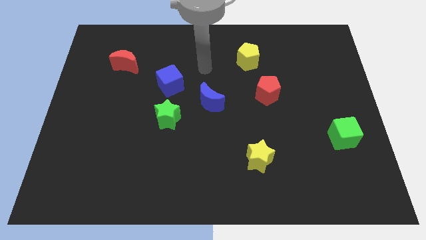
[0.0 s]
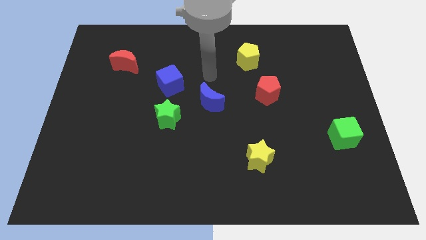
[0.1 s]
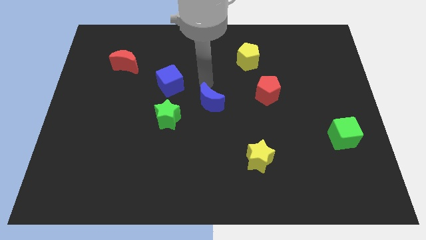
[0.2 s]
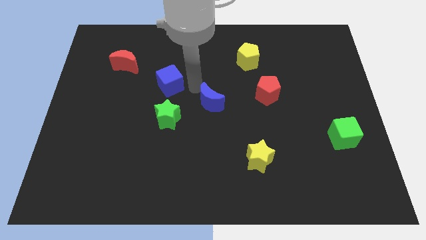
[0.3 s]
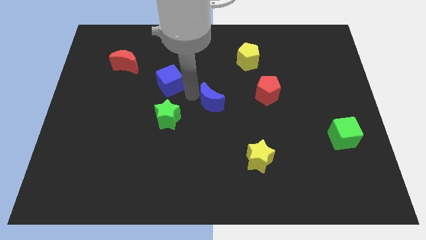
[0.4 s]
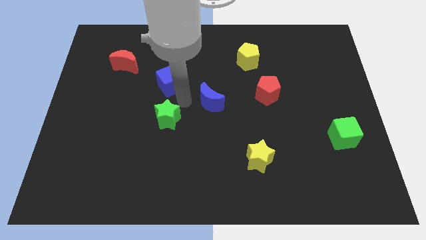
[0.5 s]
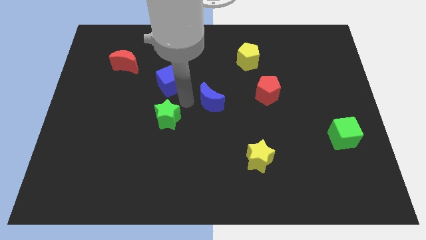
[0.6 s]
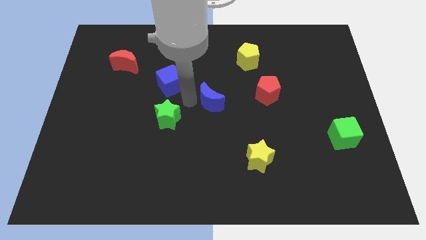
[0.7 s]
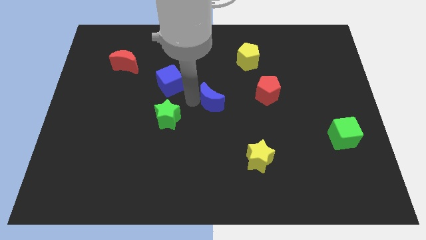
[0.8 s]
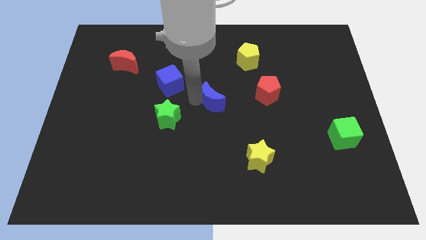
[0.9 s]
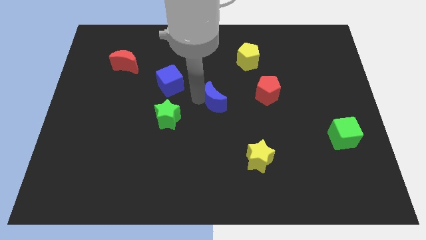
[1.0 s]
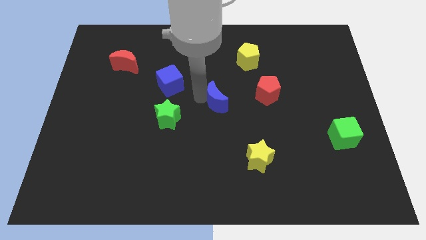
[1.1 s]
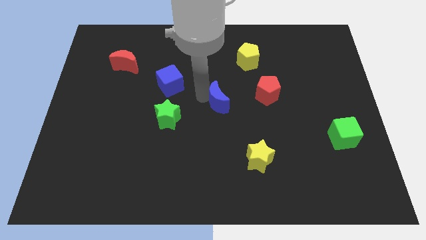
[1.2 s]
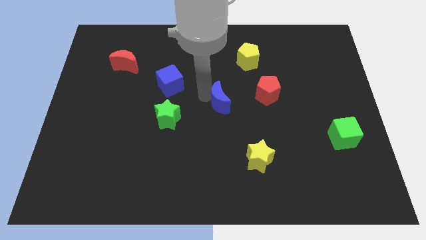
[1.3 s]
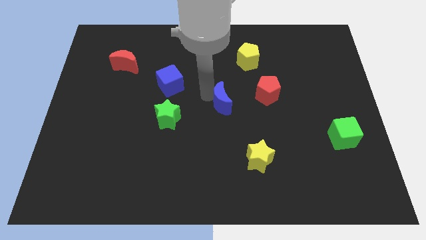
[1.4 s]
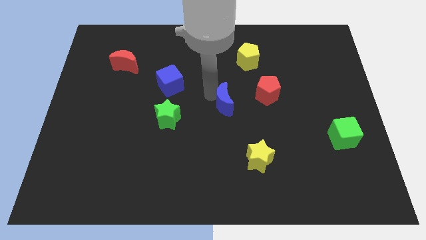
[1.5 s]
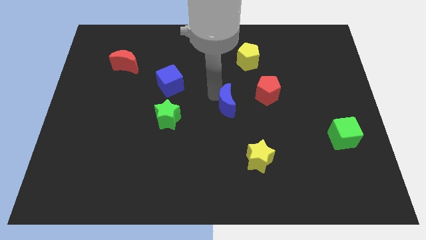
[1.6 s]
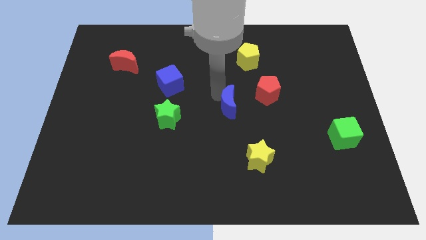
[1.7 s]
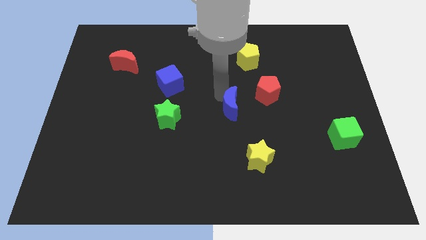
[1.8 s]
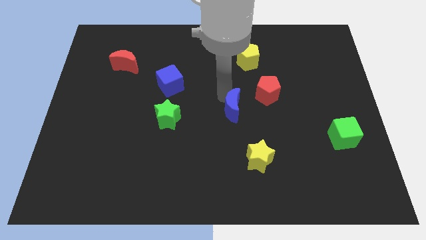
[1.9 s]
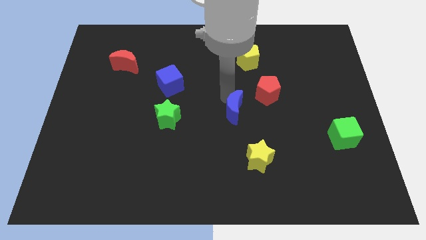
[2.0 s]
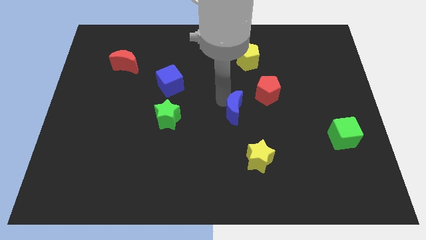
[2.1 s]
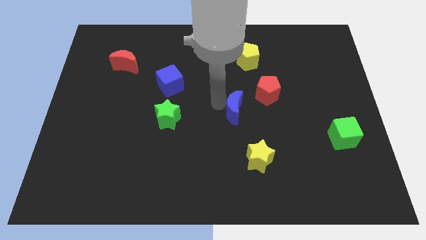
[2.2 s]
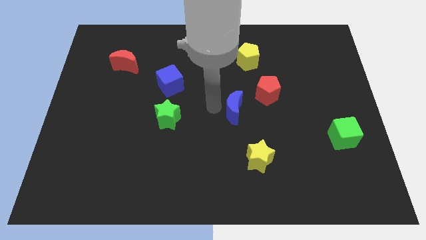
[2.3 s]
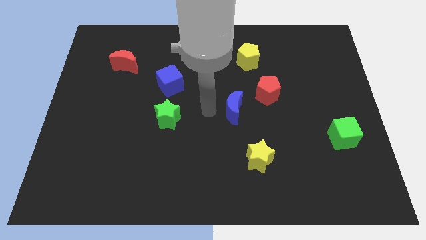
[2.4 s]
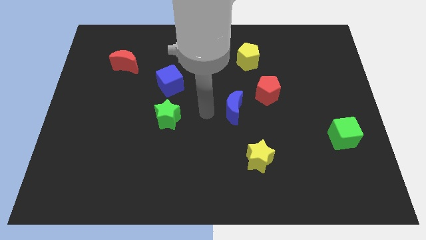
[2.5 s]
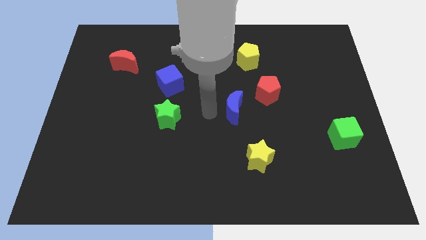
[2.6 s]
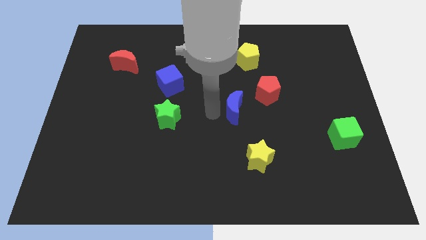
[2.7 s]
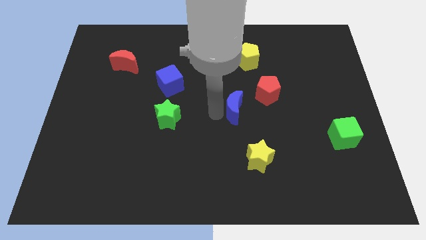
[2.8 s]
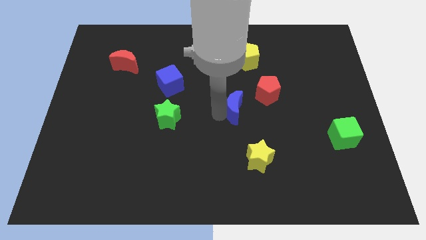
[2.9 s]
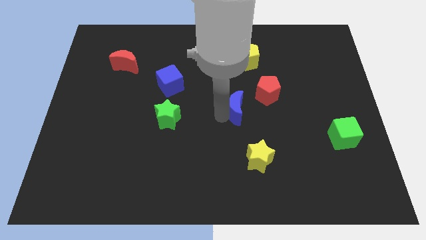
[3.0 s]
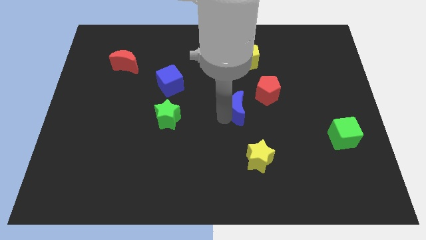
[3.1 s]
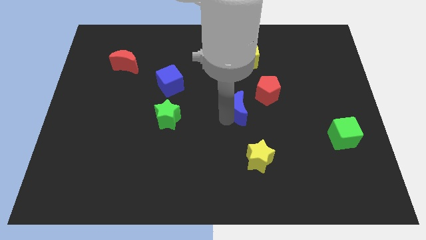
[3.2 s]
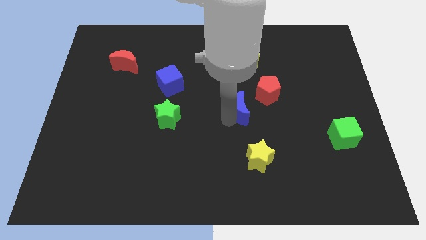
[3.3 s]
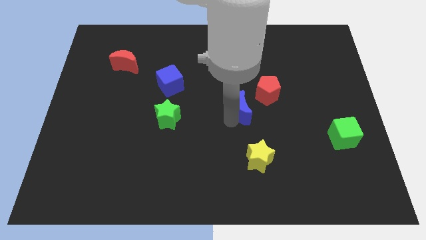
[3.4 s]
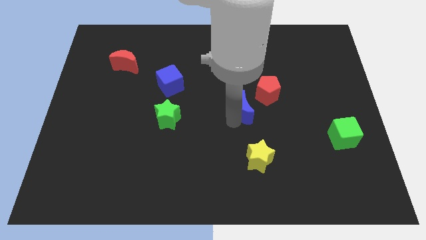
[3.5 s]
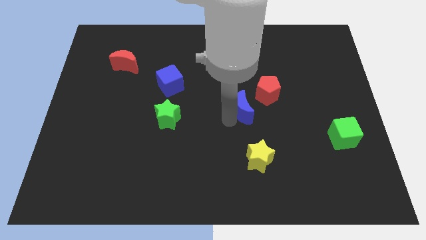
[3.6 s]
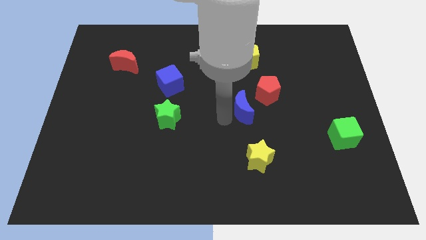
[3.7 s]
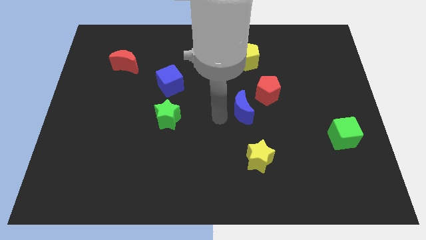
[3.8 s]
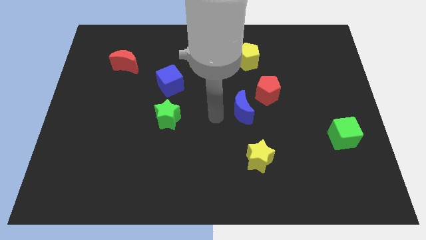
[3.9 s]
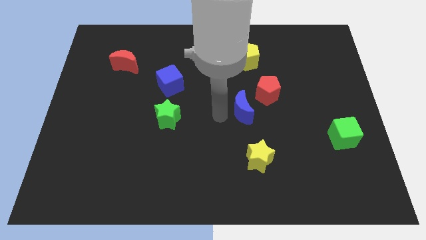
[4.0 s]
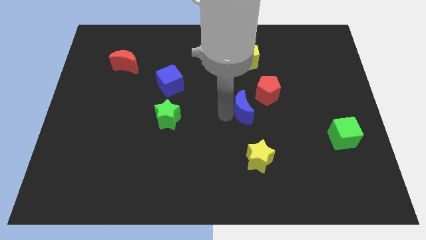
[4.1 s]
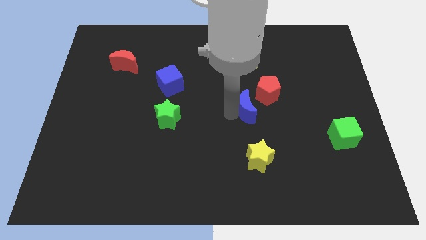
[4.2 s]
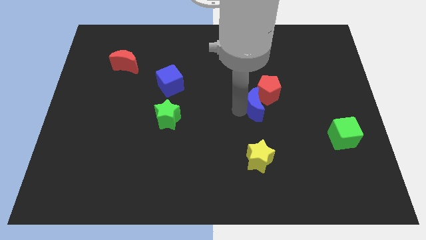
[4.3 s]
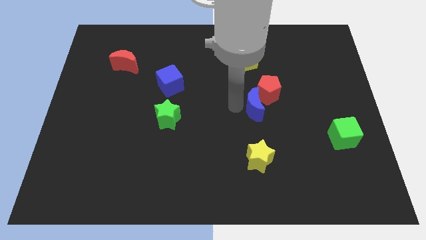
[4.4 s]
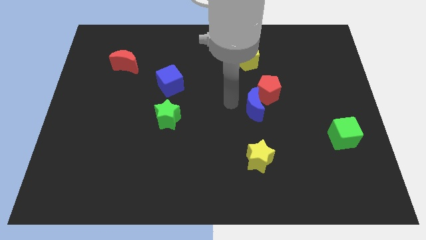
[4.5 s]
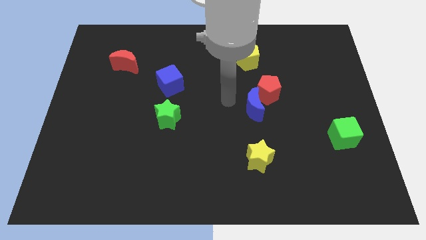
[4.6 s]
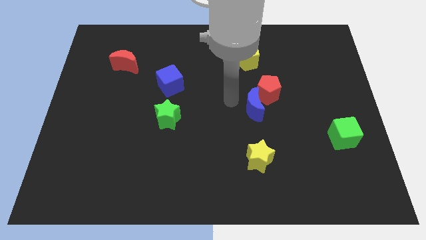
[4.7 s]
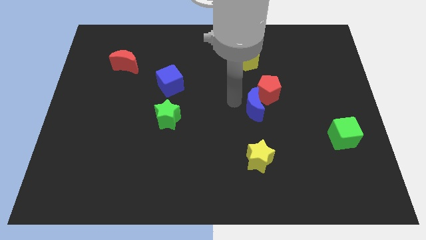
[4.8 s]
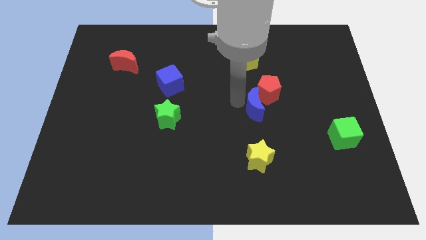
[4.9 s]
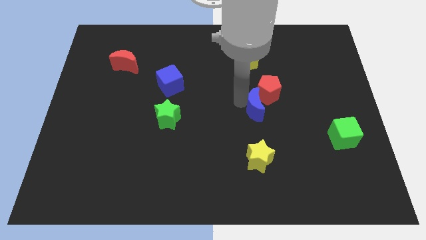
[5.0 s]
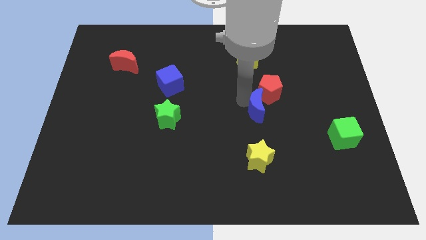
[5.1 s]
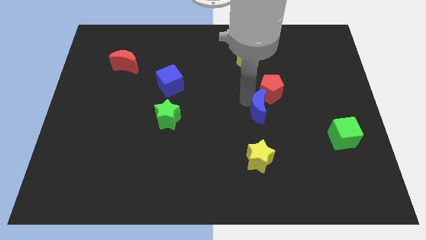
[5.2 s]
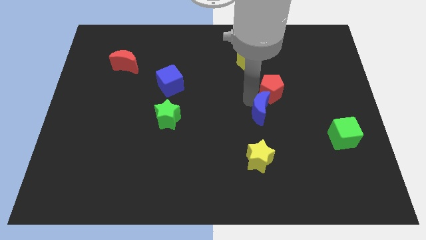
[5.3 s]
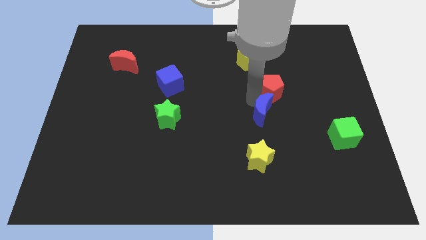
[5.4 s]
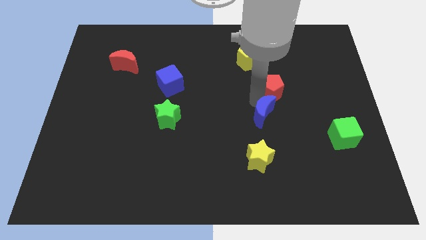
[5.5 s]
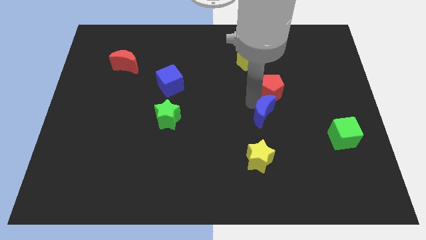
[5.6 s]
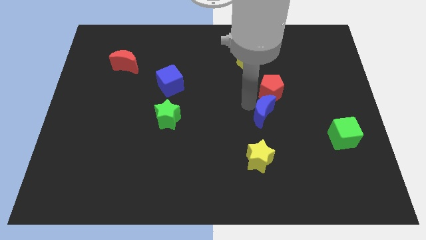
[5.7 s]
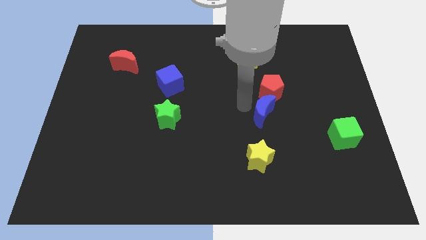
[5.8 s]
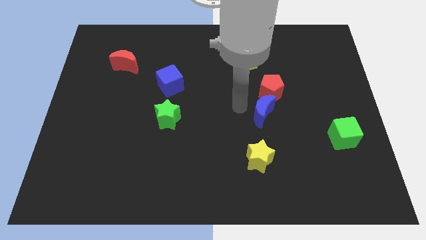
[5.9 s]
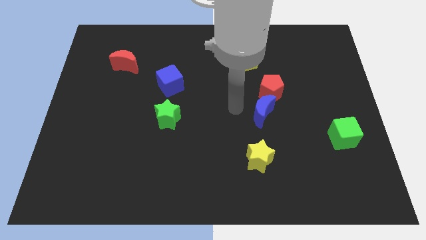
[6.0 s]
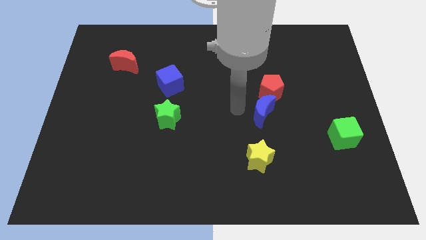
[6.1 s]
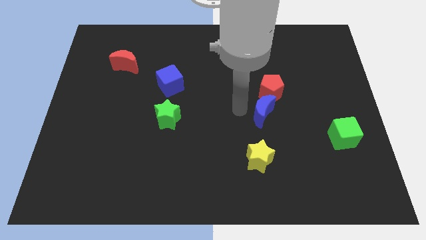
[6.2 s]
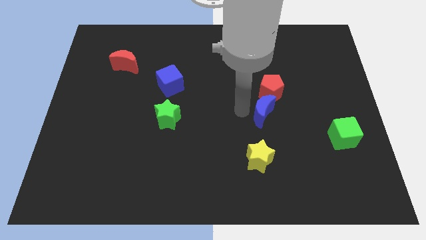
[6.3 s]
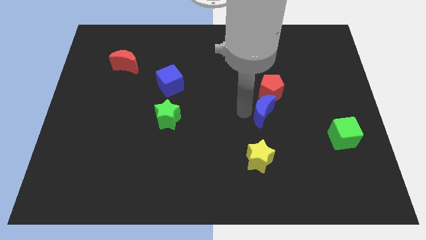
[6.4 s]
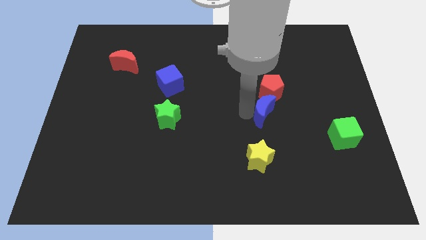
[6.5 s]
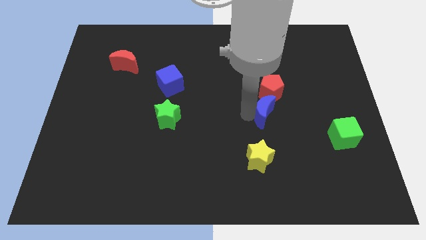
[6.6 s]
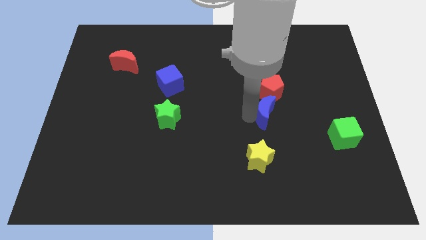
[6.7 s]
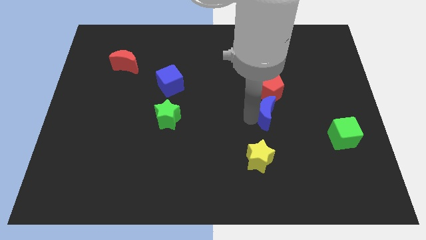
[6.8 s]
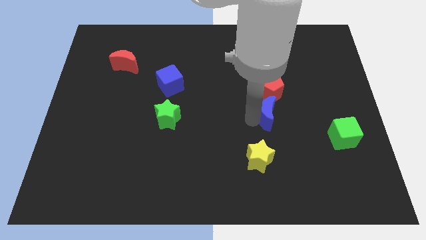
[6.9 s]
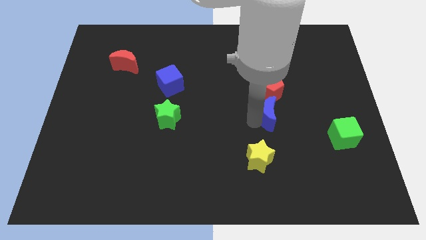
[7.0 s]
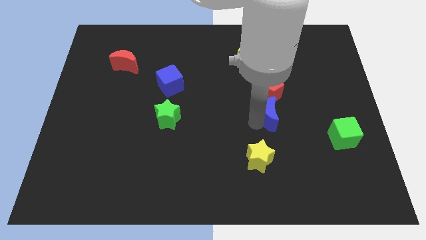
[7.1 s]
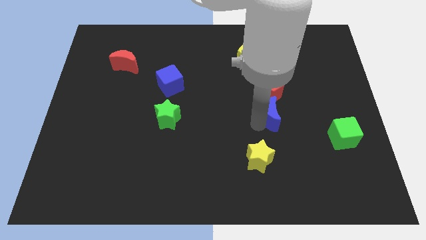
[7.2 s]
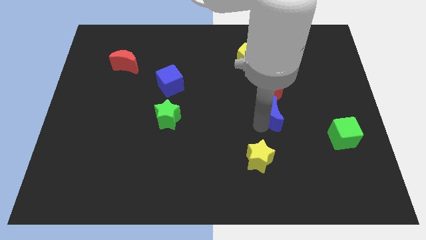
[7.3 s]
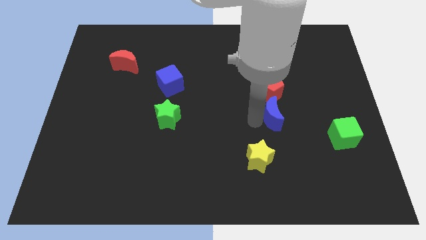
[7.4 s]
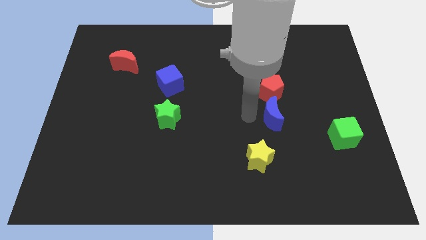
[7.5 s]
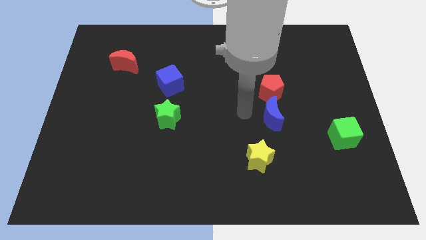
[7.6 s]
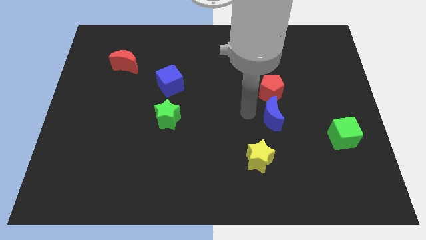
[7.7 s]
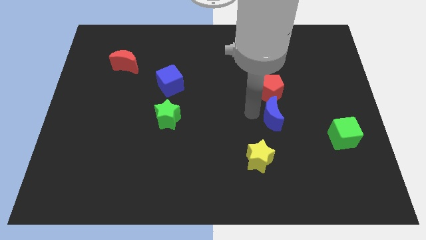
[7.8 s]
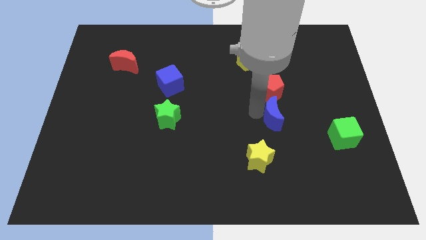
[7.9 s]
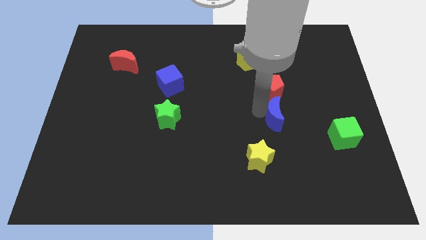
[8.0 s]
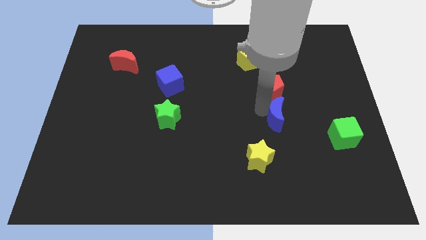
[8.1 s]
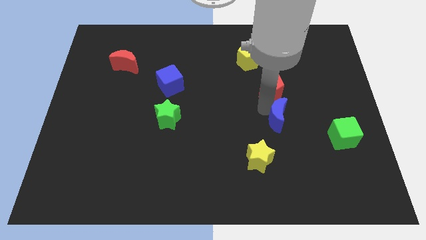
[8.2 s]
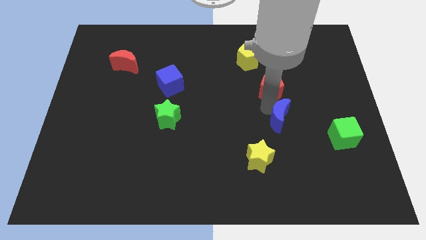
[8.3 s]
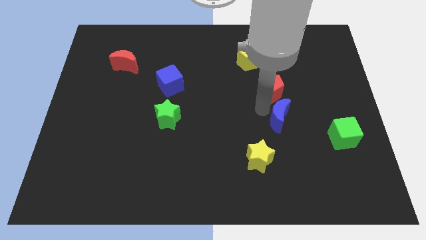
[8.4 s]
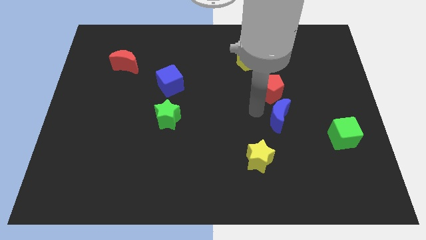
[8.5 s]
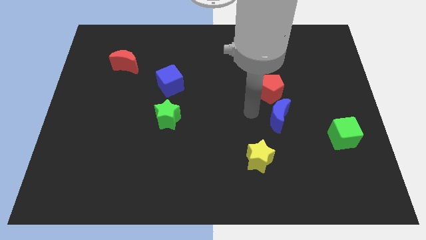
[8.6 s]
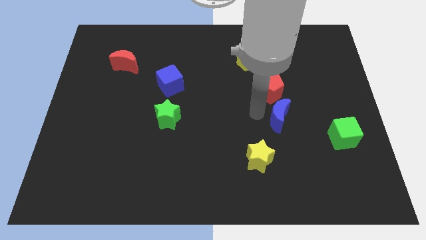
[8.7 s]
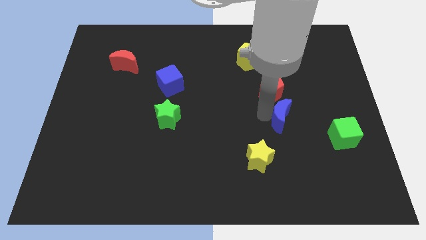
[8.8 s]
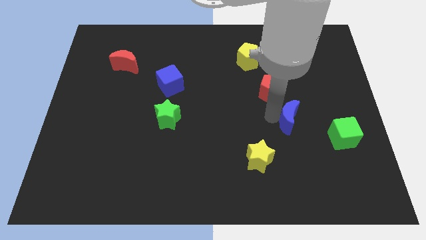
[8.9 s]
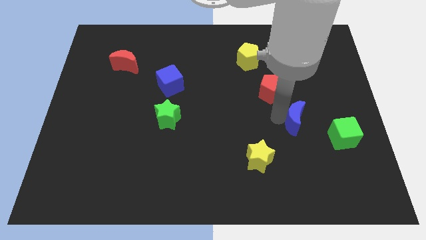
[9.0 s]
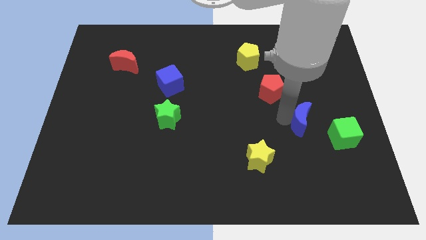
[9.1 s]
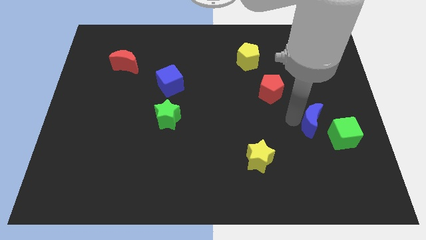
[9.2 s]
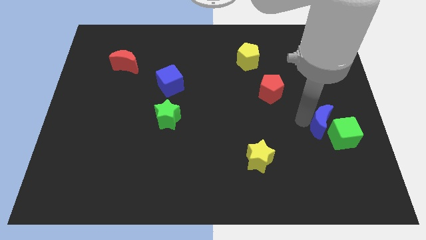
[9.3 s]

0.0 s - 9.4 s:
push the blue moon next to the green cube
